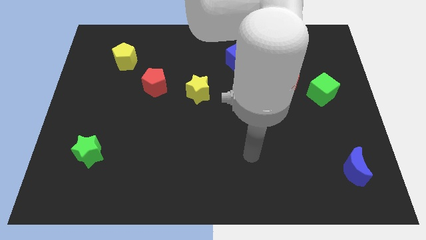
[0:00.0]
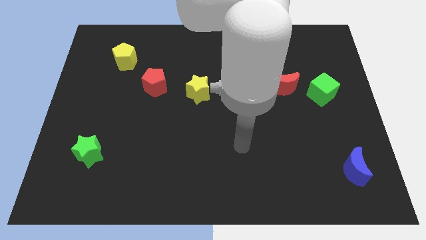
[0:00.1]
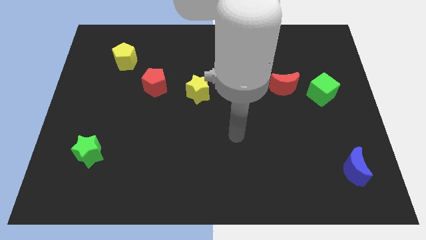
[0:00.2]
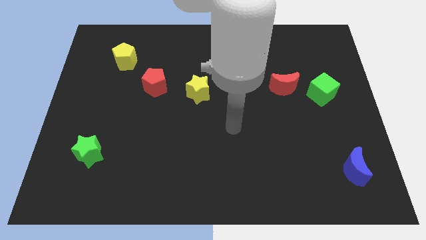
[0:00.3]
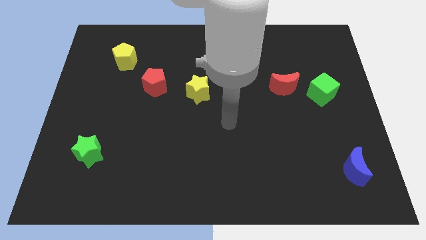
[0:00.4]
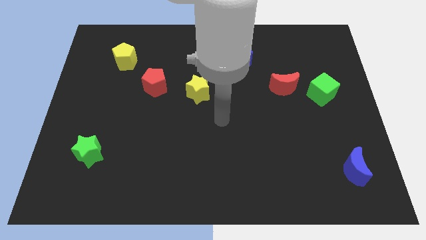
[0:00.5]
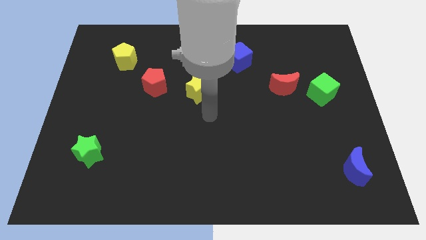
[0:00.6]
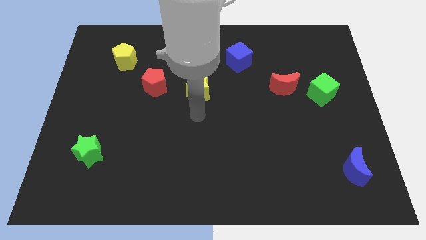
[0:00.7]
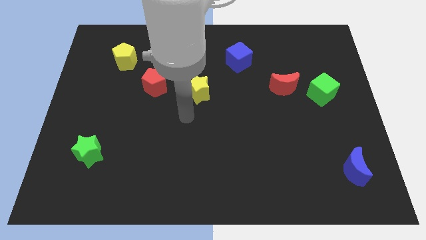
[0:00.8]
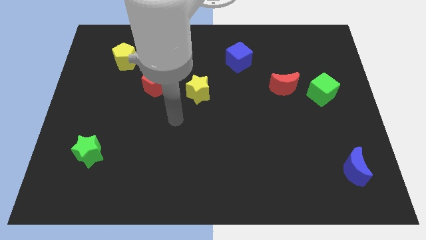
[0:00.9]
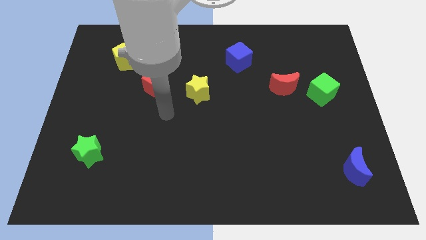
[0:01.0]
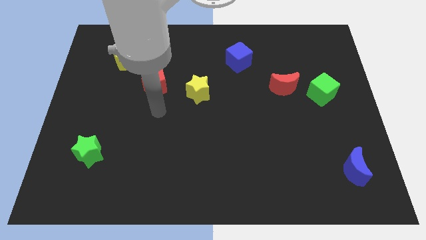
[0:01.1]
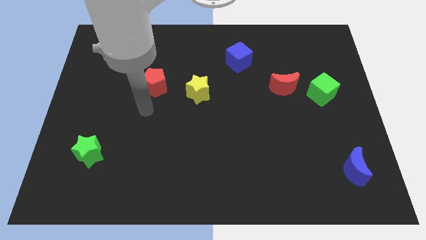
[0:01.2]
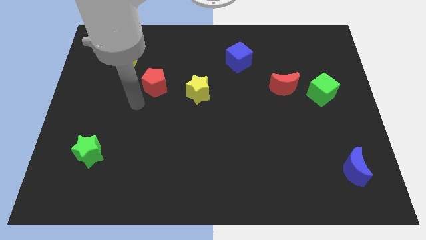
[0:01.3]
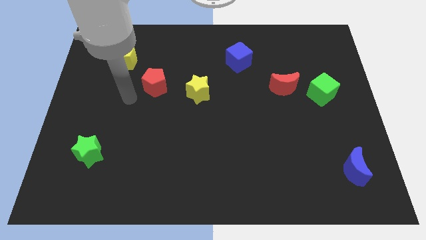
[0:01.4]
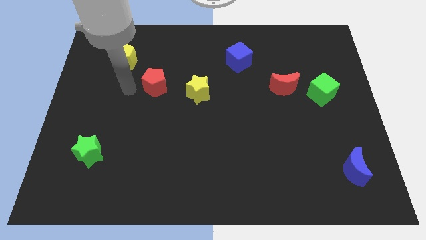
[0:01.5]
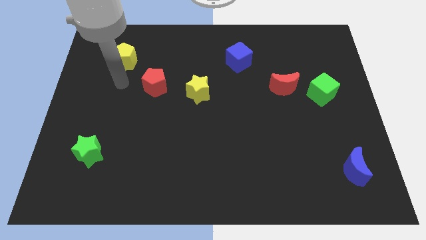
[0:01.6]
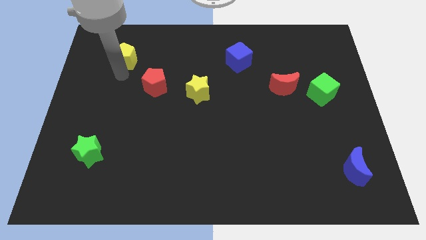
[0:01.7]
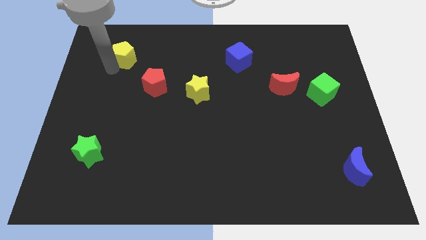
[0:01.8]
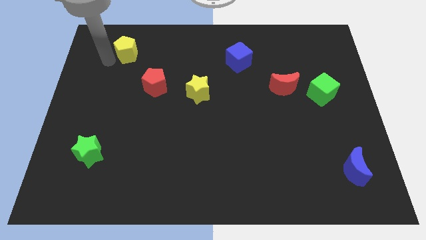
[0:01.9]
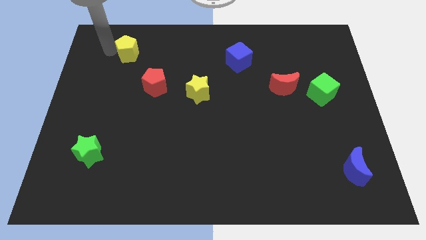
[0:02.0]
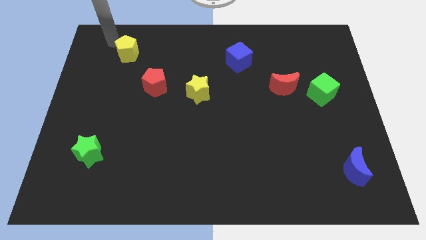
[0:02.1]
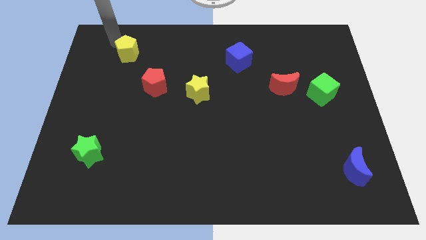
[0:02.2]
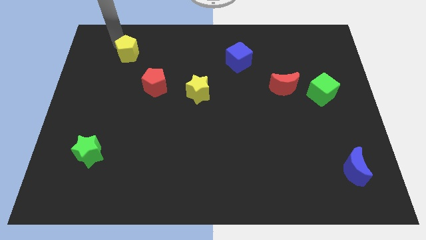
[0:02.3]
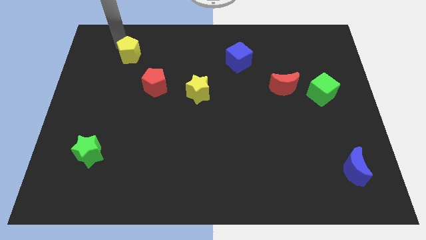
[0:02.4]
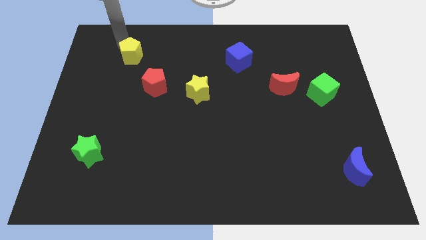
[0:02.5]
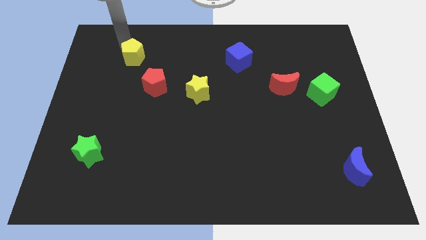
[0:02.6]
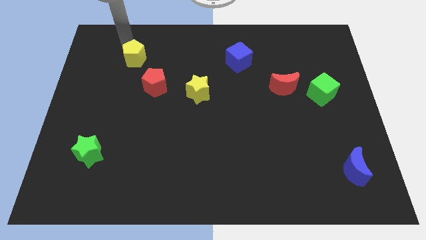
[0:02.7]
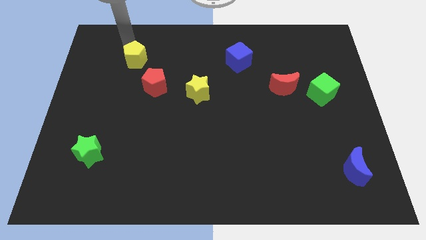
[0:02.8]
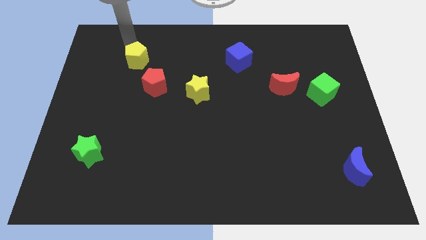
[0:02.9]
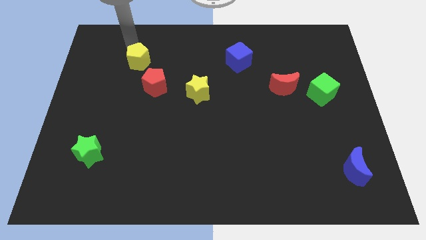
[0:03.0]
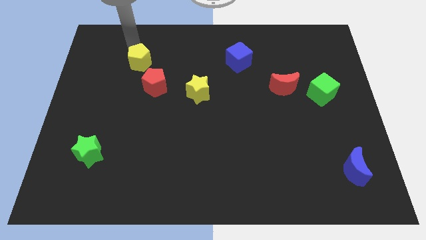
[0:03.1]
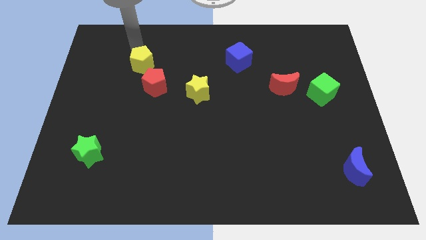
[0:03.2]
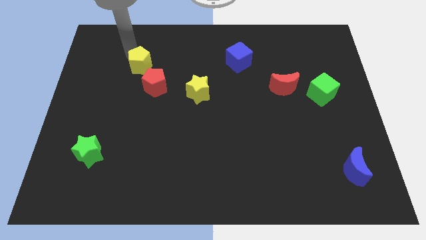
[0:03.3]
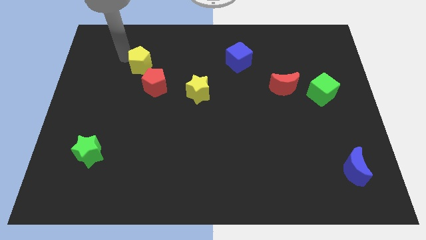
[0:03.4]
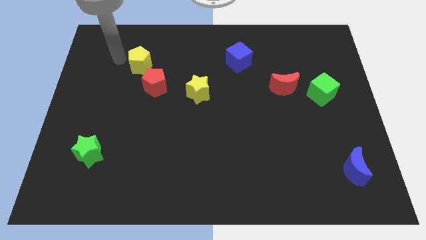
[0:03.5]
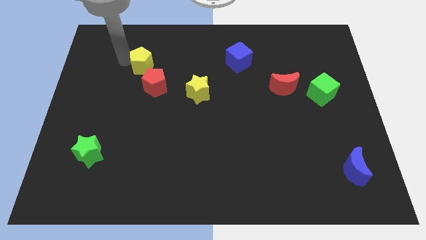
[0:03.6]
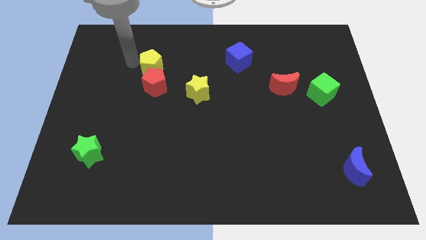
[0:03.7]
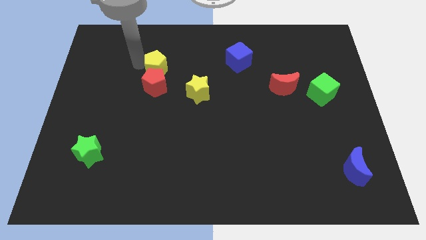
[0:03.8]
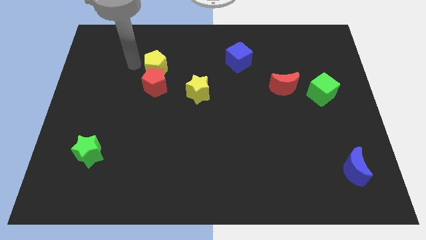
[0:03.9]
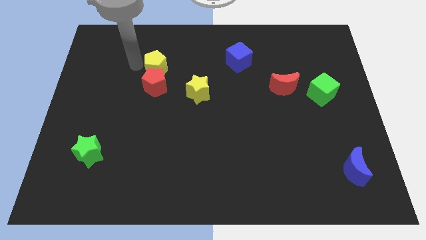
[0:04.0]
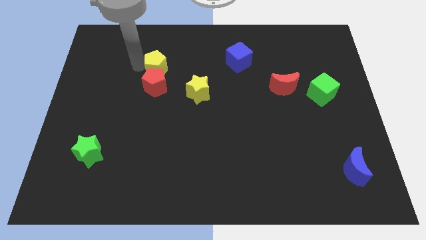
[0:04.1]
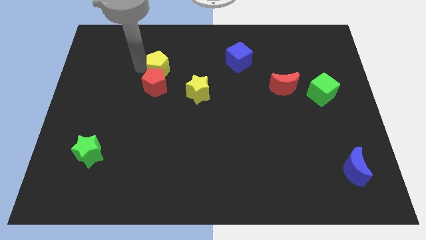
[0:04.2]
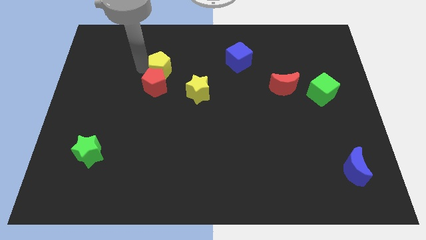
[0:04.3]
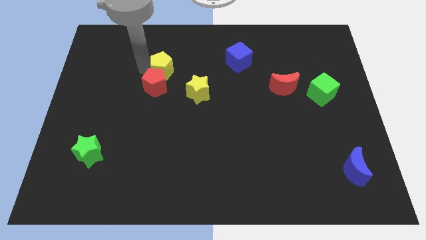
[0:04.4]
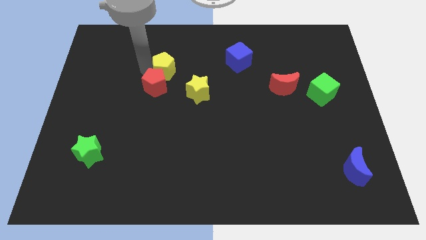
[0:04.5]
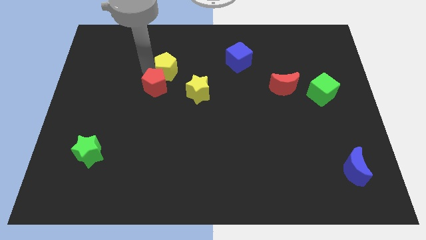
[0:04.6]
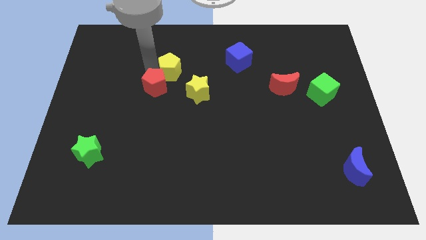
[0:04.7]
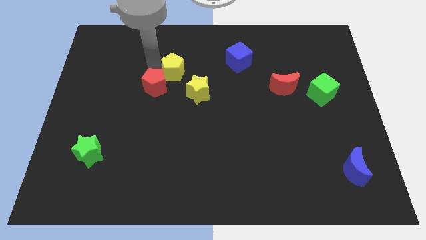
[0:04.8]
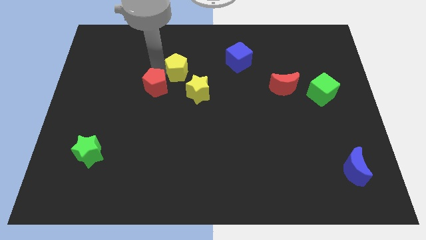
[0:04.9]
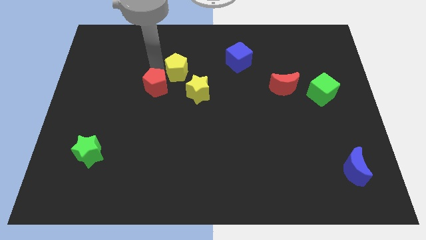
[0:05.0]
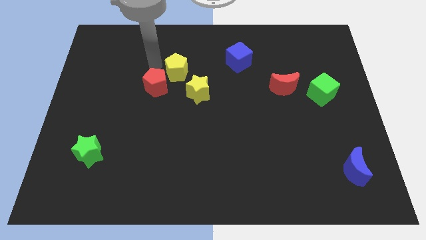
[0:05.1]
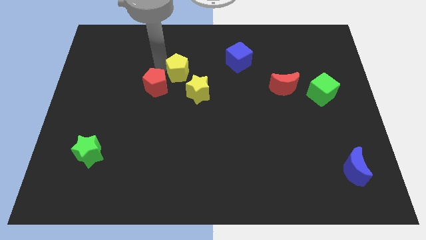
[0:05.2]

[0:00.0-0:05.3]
slide the yellow pentagon to the center

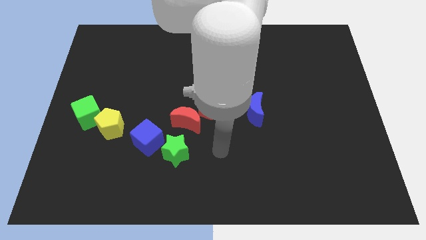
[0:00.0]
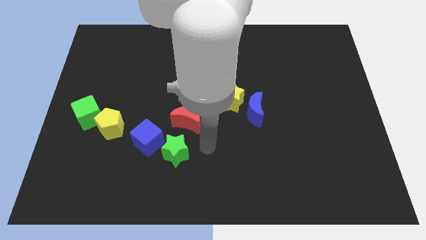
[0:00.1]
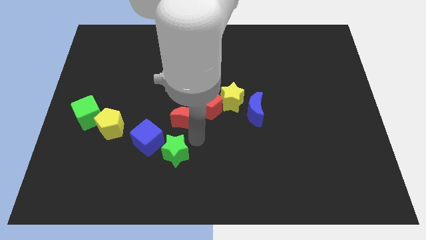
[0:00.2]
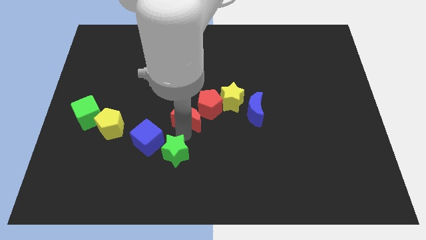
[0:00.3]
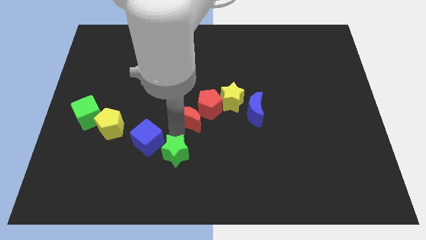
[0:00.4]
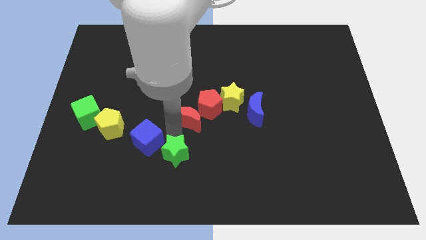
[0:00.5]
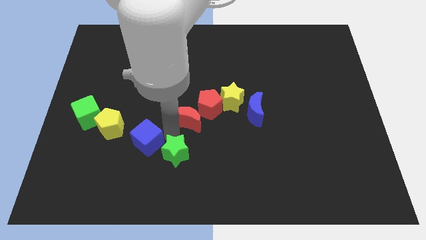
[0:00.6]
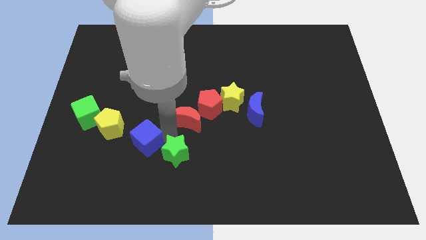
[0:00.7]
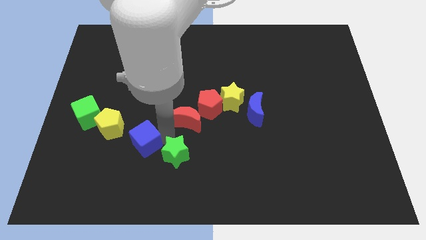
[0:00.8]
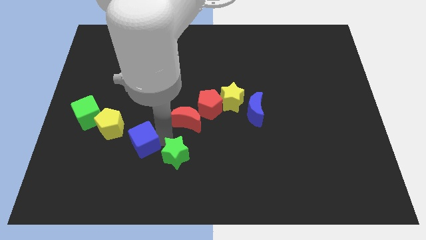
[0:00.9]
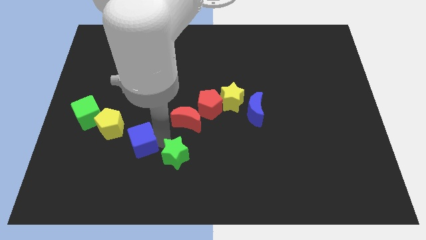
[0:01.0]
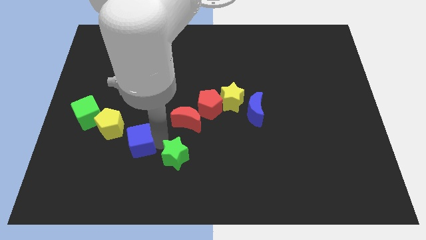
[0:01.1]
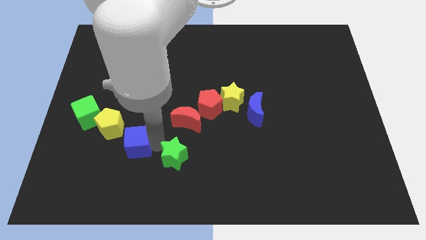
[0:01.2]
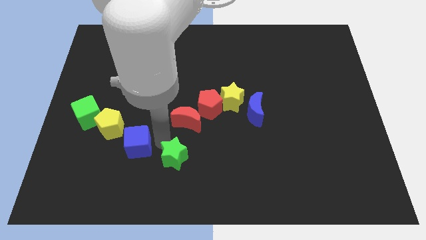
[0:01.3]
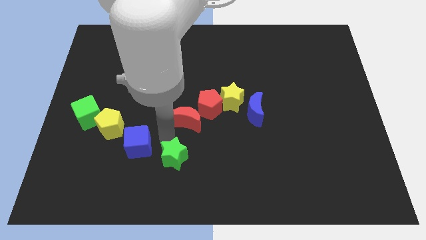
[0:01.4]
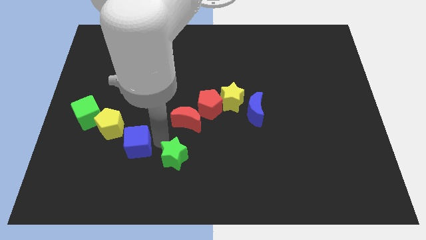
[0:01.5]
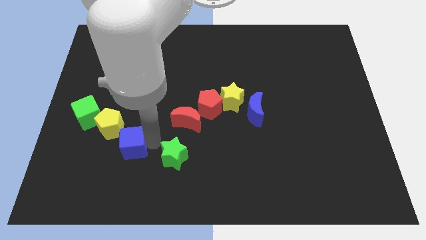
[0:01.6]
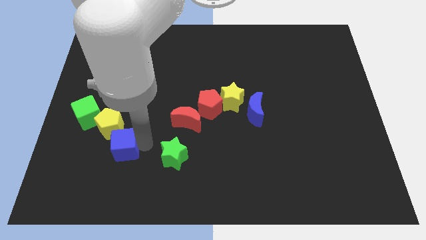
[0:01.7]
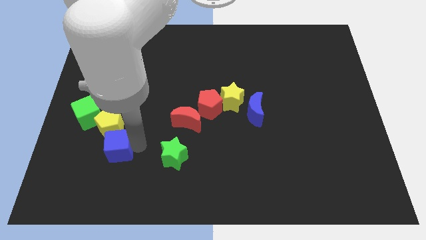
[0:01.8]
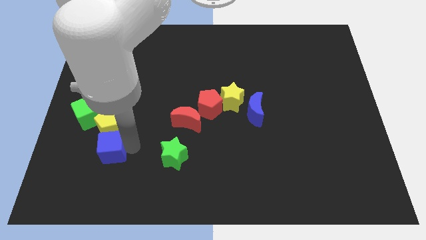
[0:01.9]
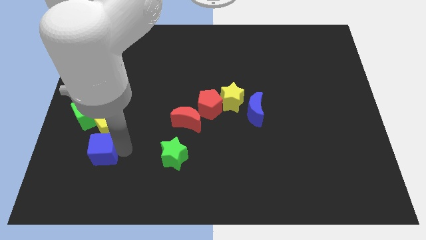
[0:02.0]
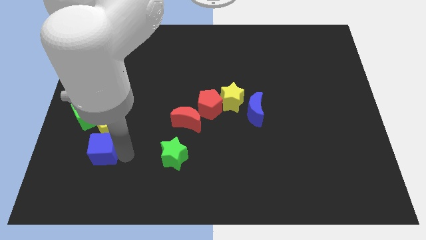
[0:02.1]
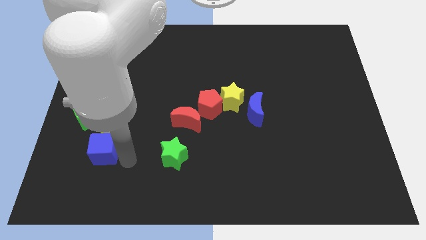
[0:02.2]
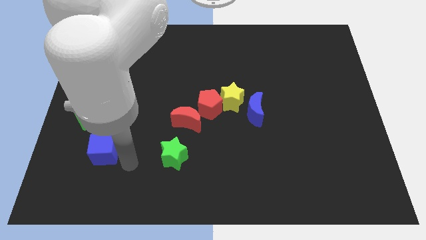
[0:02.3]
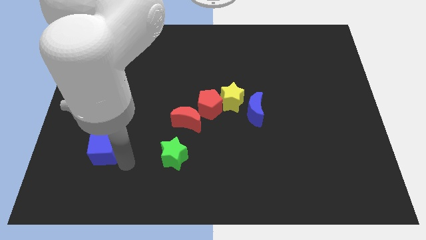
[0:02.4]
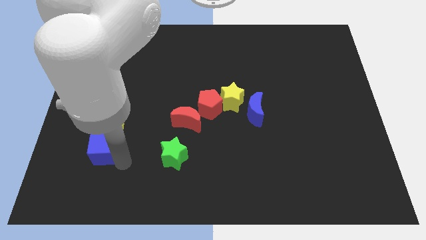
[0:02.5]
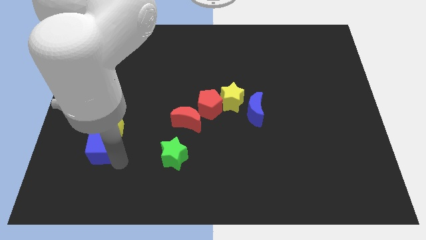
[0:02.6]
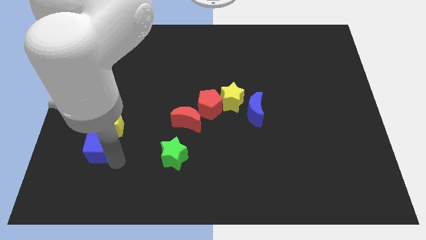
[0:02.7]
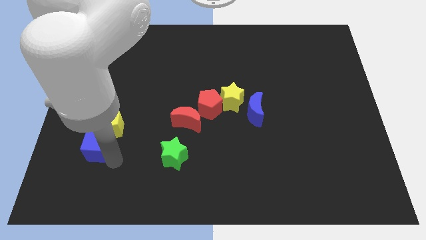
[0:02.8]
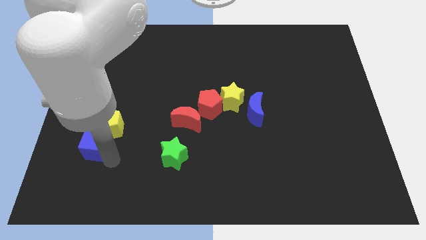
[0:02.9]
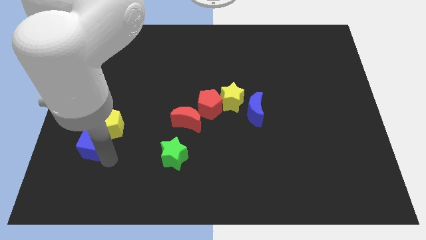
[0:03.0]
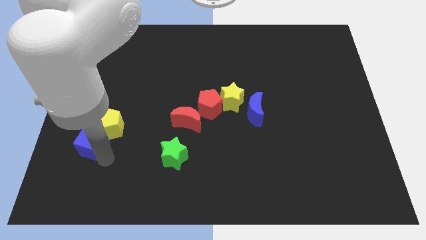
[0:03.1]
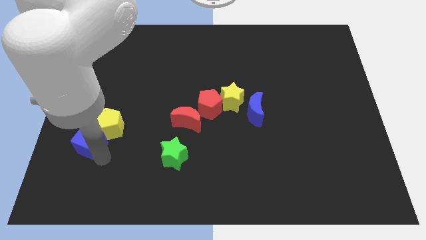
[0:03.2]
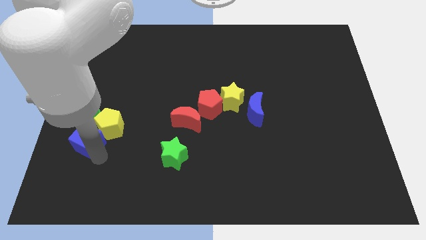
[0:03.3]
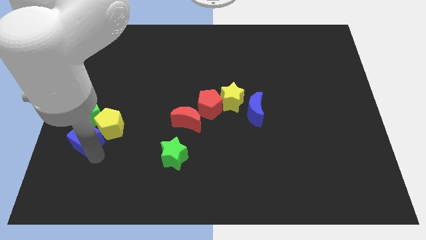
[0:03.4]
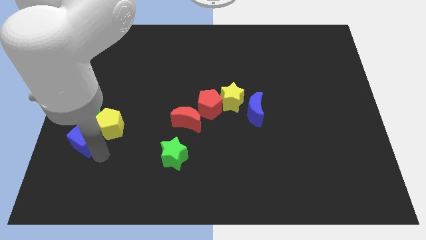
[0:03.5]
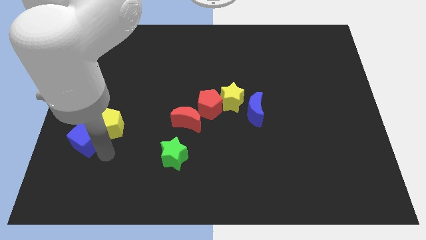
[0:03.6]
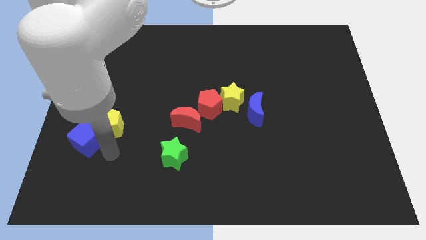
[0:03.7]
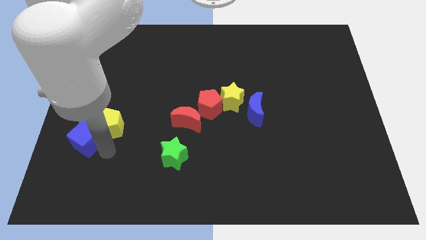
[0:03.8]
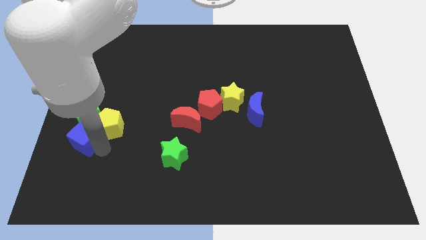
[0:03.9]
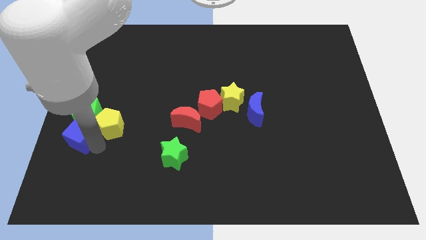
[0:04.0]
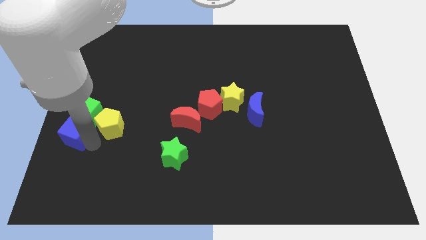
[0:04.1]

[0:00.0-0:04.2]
push the blue cube to the center left
